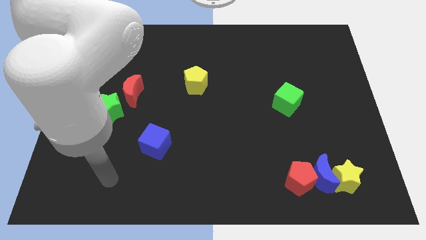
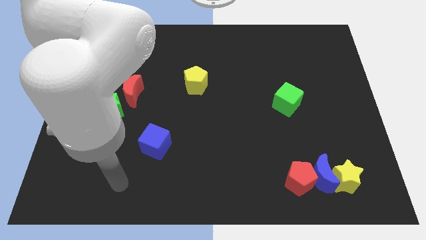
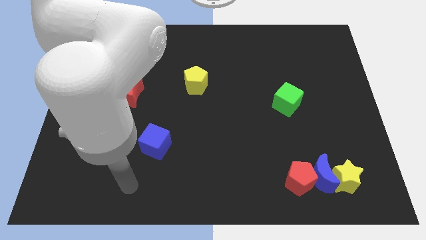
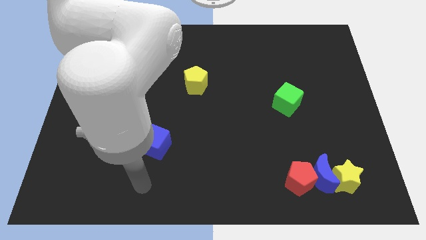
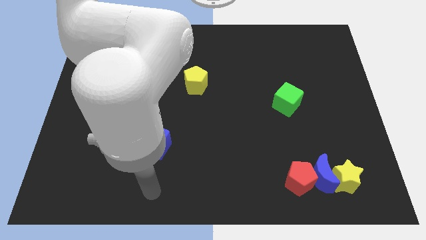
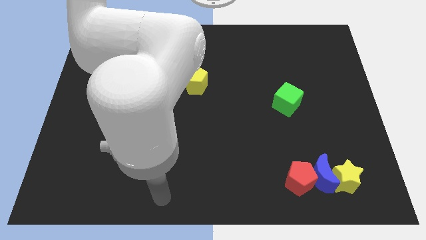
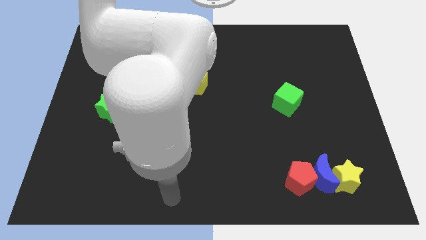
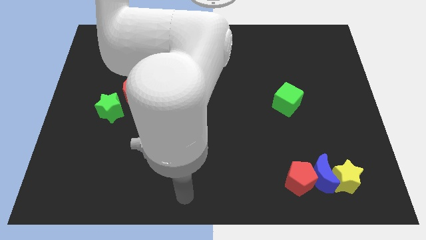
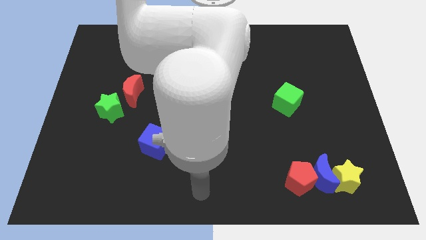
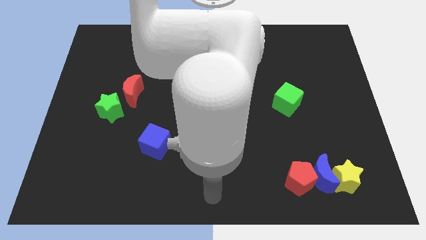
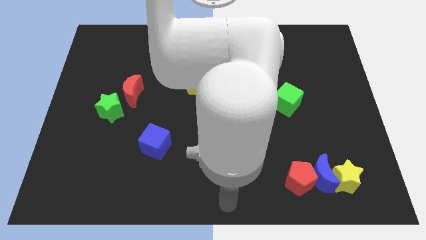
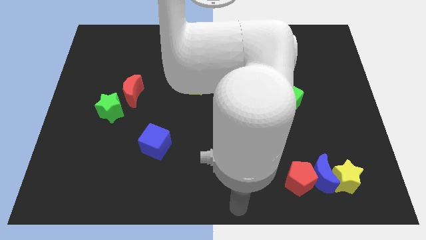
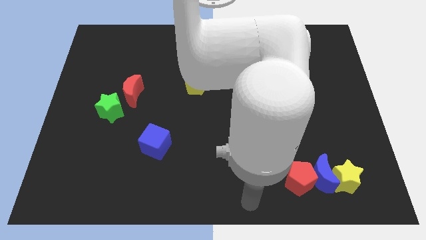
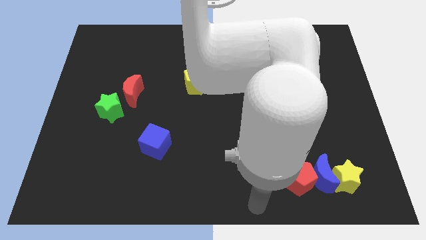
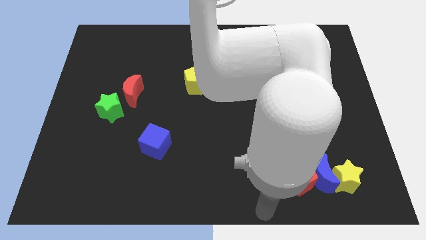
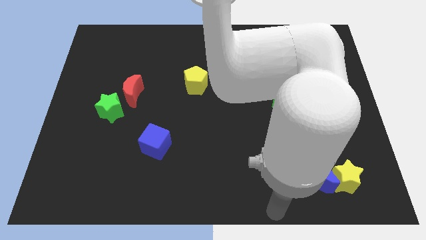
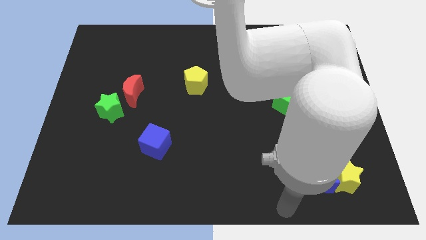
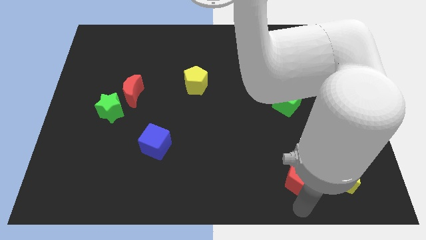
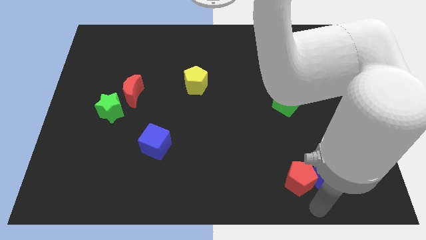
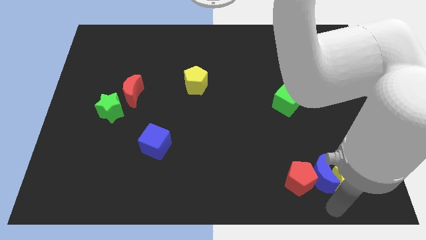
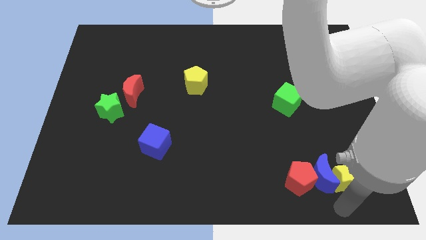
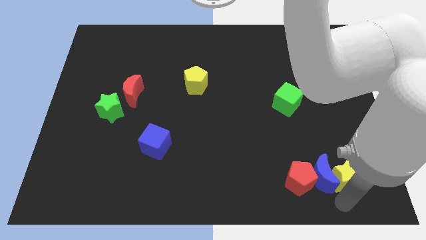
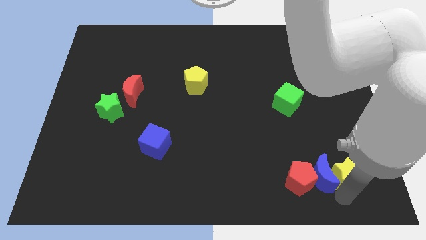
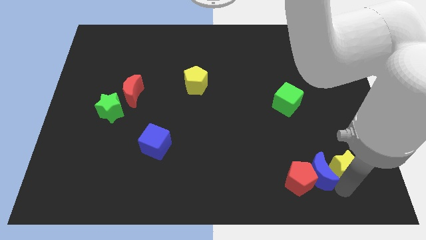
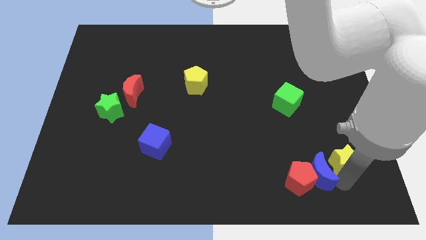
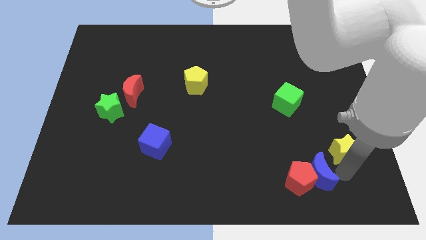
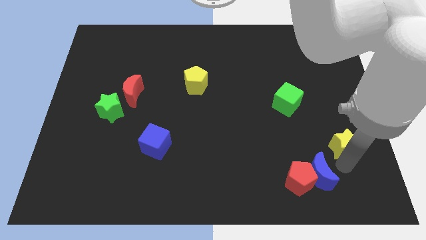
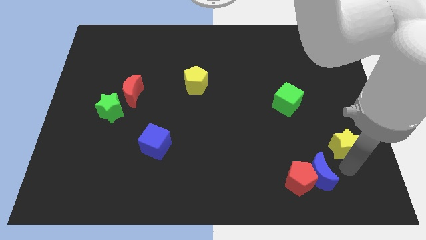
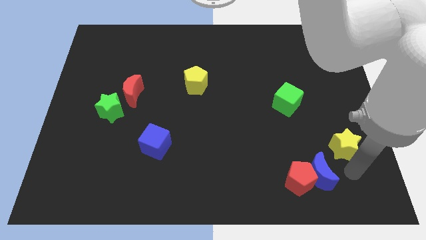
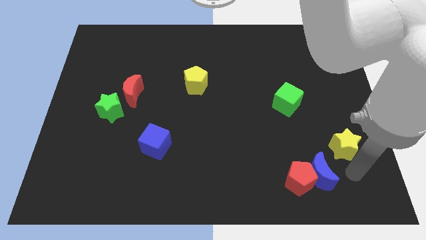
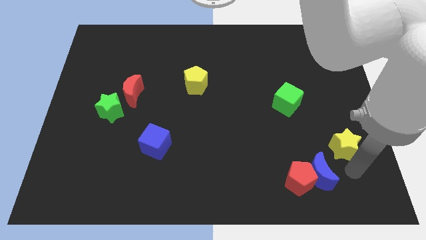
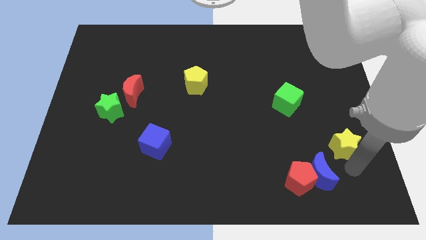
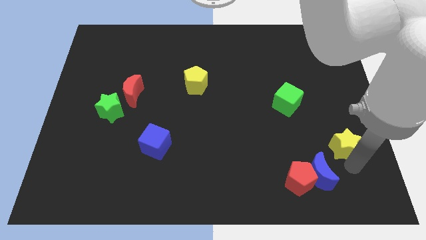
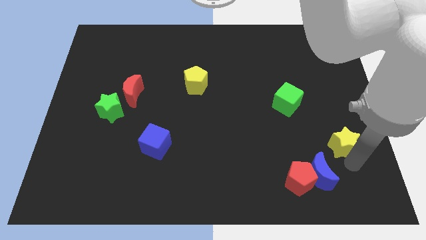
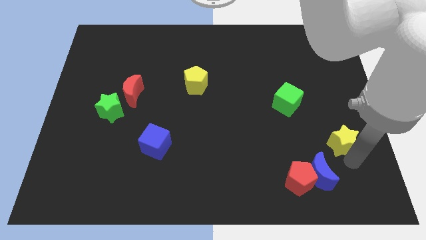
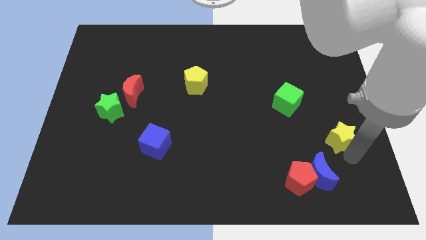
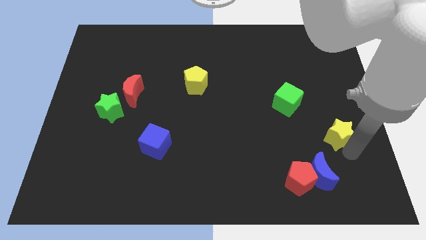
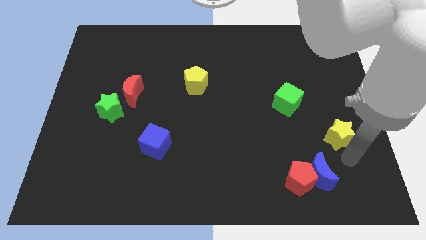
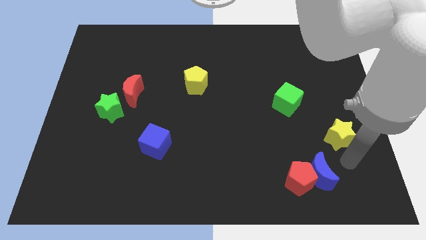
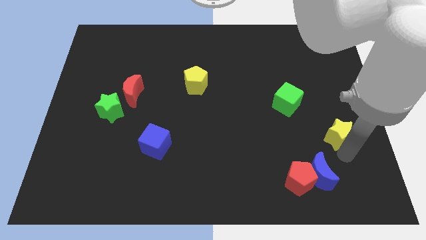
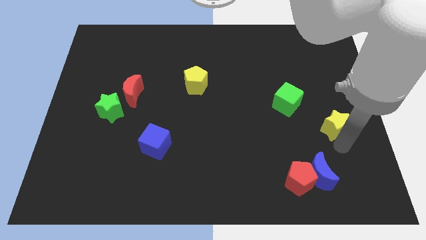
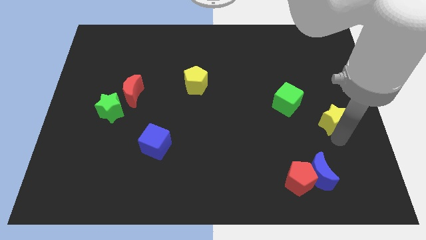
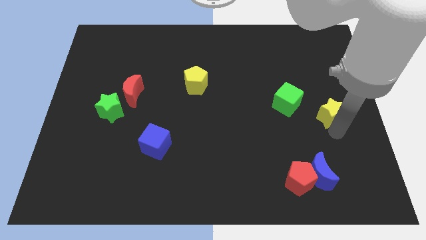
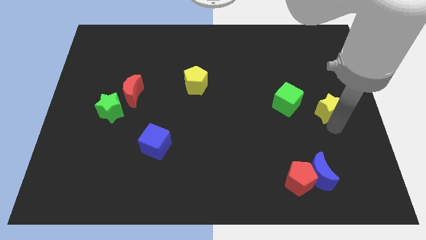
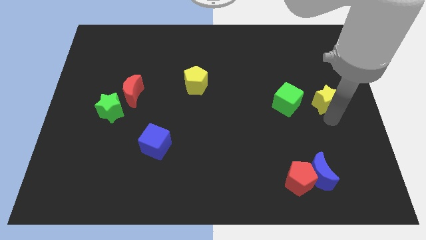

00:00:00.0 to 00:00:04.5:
slide the yellow star upwards

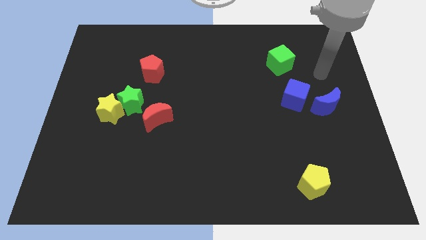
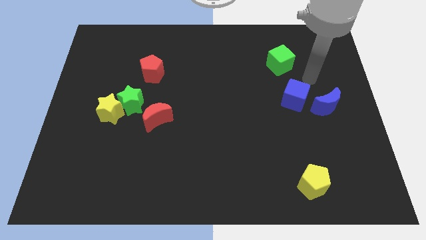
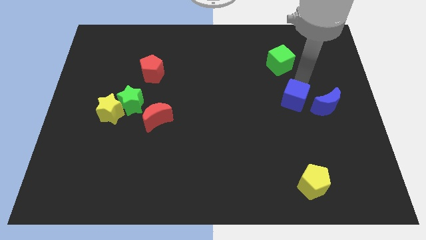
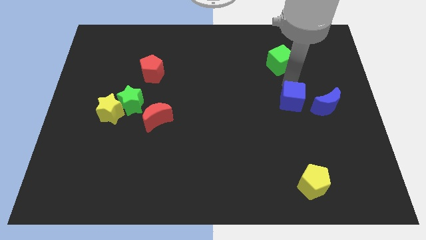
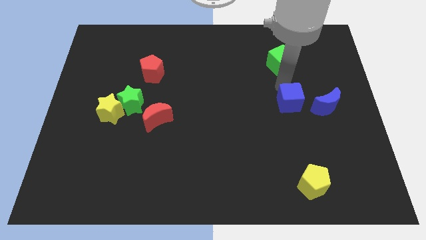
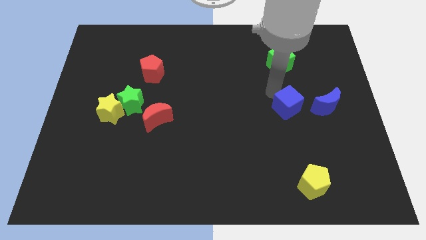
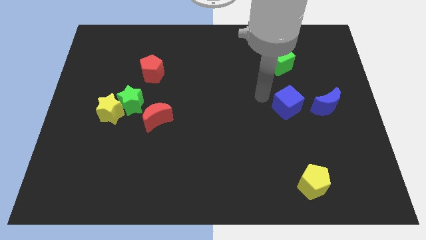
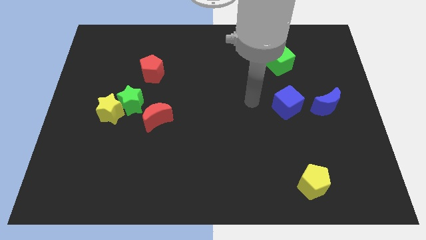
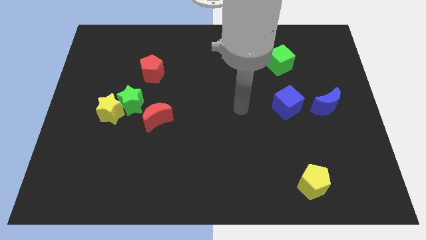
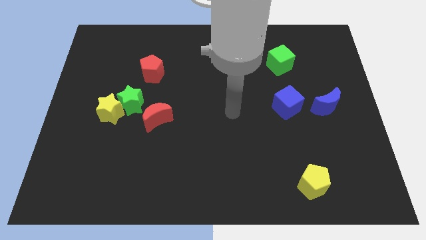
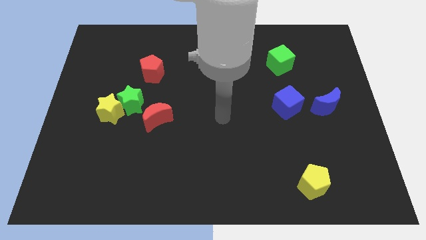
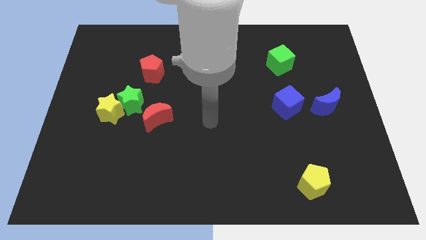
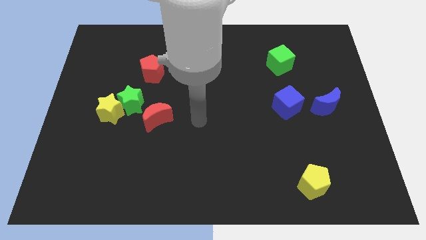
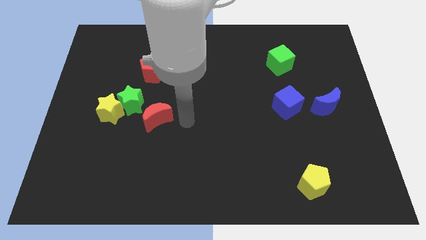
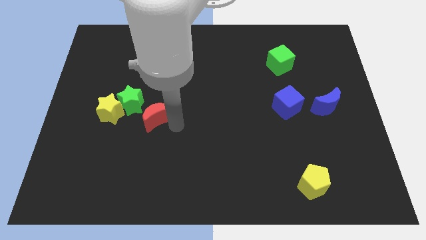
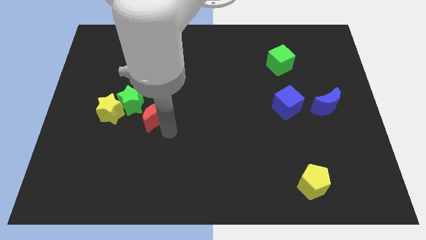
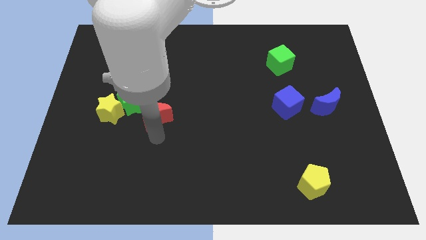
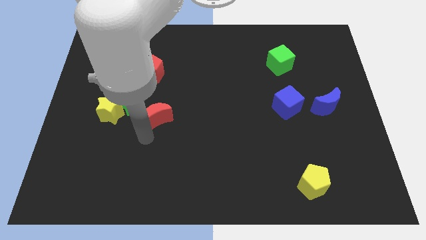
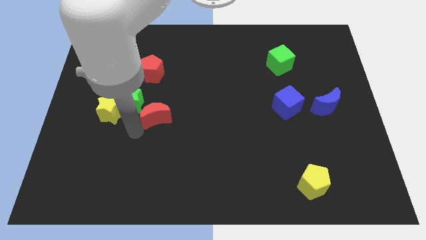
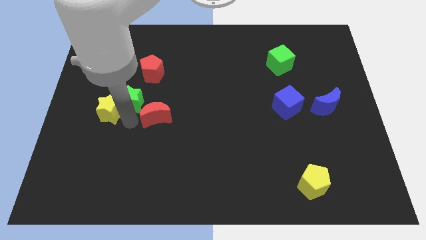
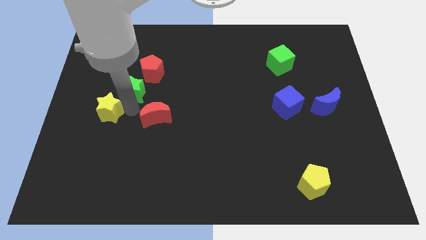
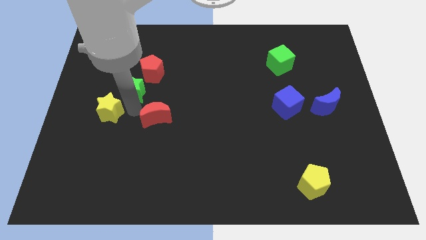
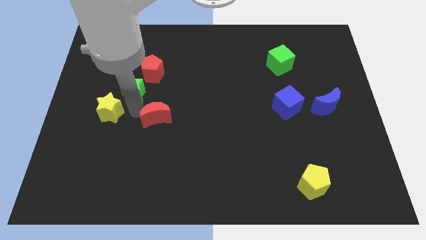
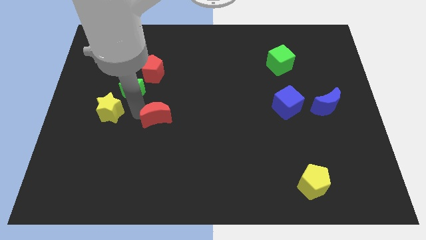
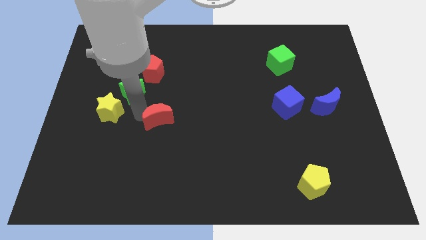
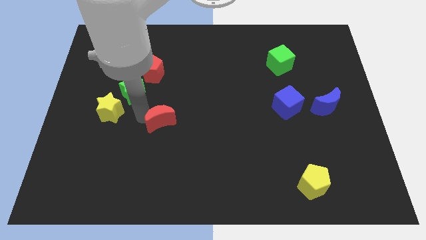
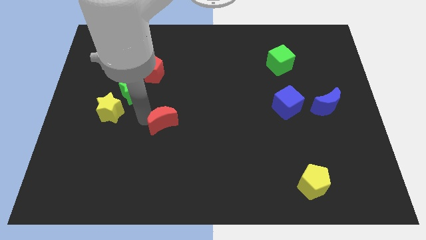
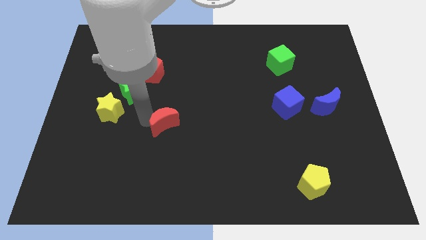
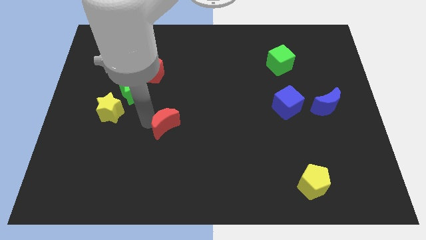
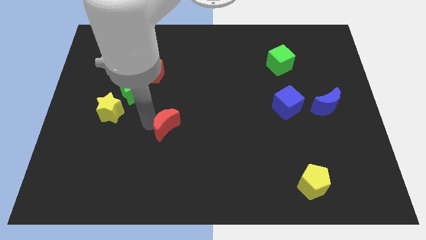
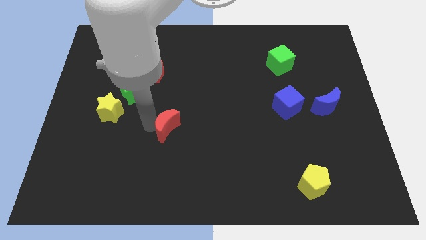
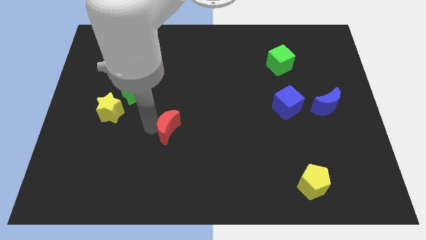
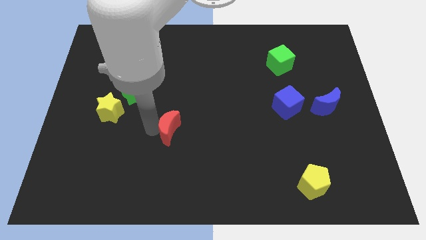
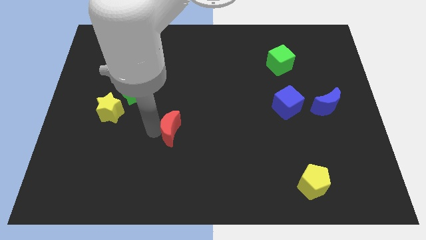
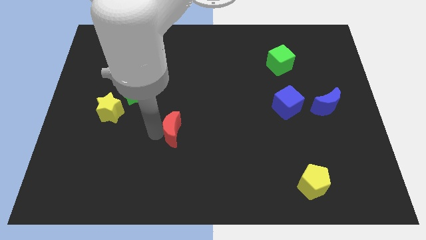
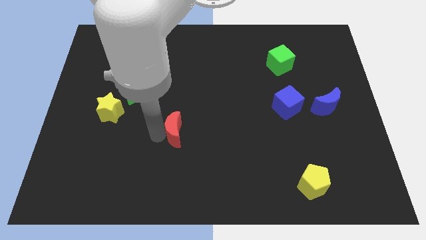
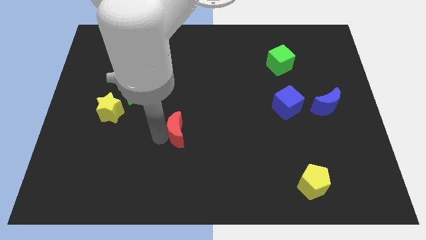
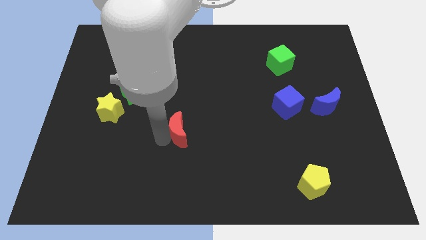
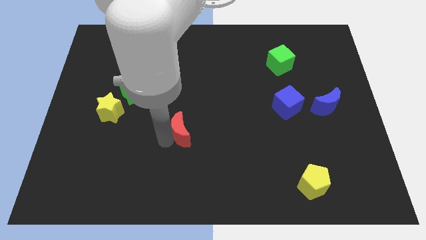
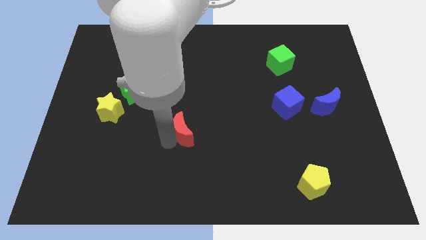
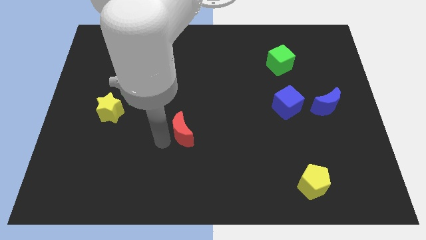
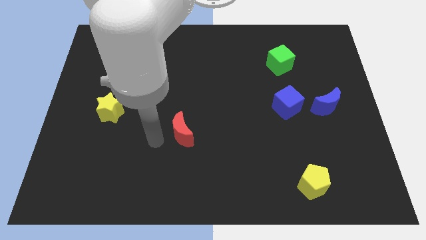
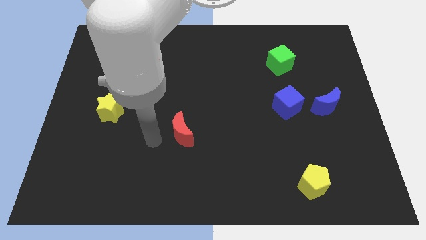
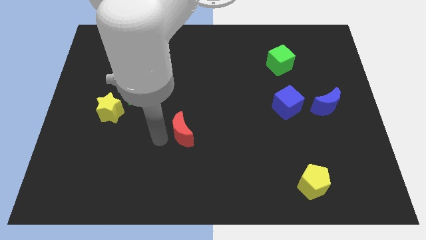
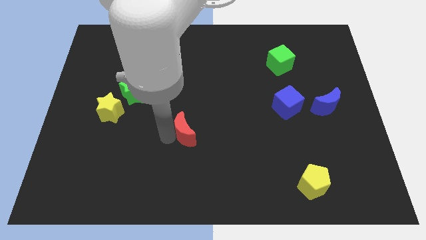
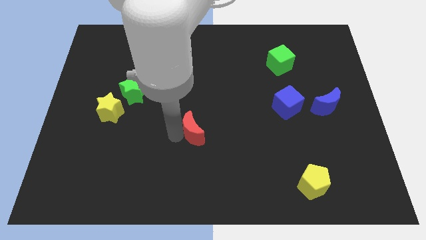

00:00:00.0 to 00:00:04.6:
move the red moon right slightly
